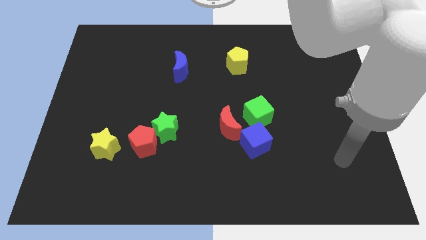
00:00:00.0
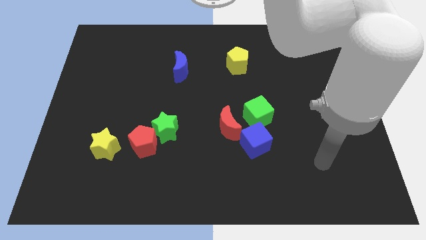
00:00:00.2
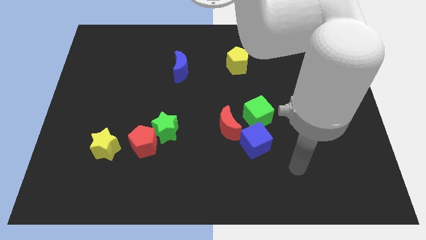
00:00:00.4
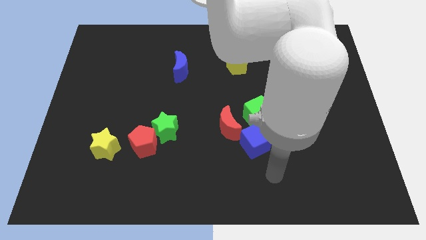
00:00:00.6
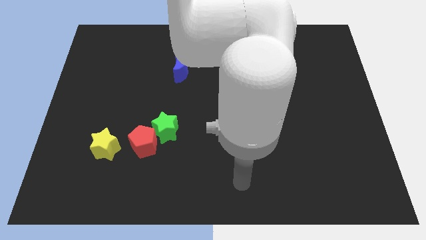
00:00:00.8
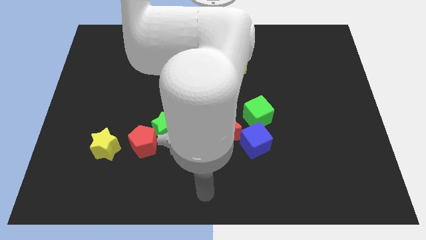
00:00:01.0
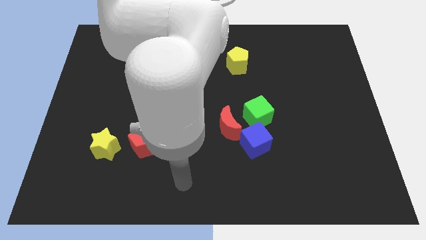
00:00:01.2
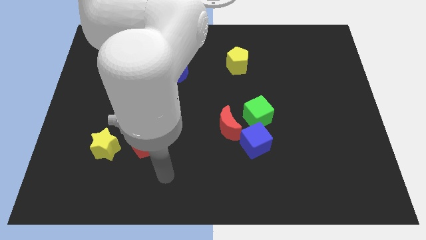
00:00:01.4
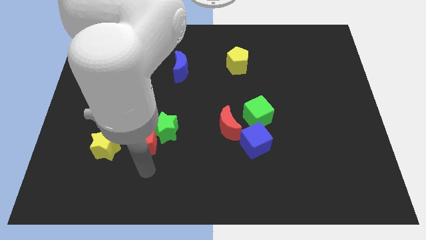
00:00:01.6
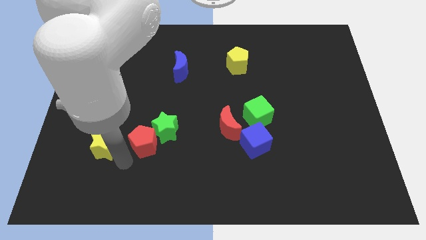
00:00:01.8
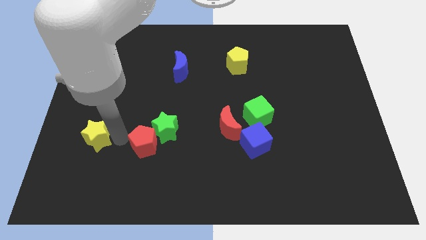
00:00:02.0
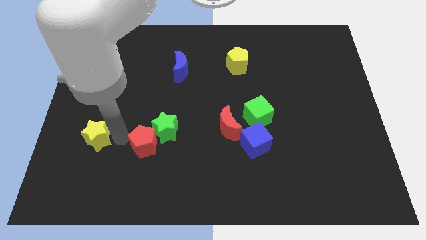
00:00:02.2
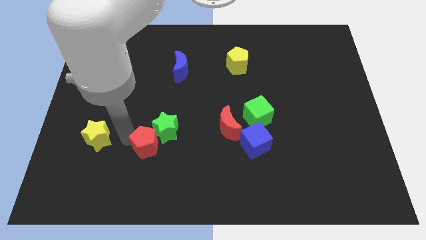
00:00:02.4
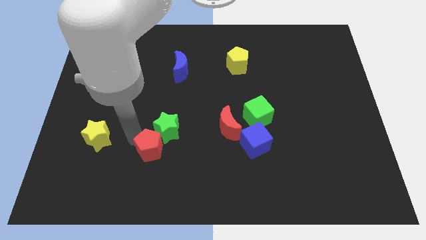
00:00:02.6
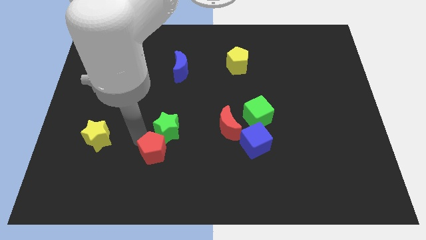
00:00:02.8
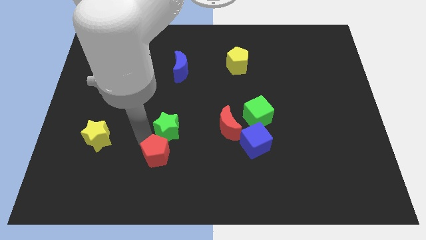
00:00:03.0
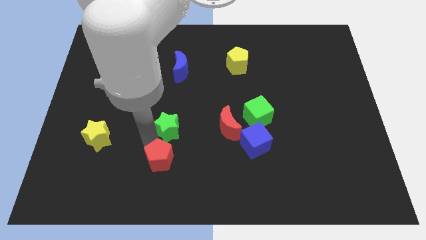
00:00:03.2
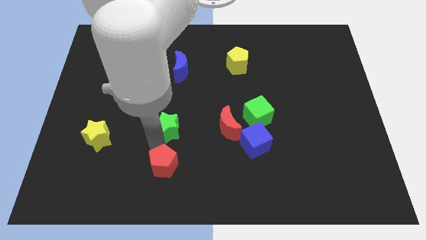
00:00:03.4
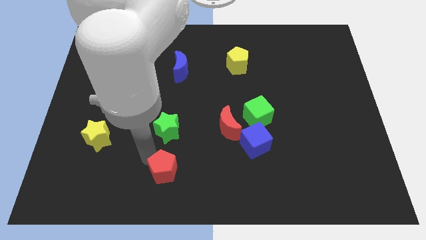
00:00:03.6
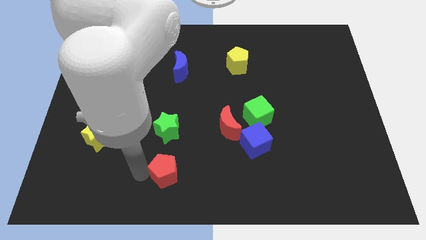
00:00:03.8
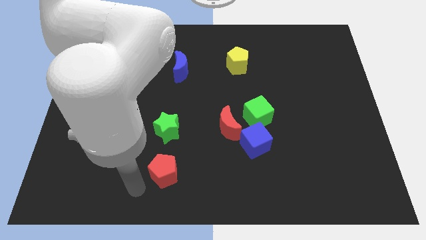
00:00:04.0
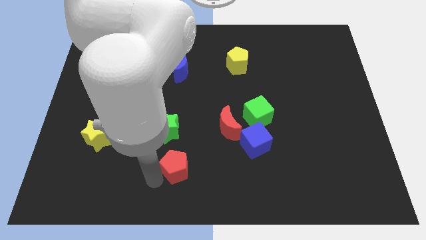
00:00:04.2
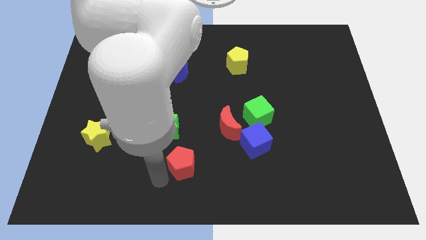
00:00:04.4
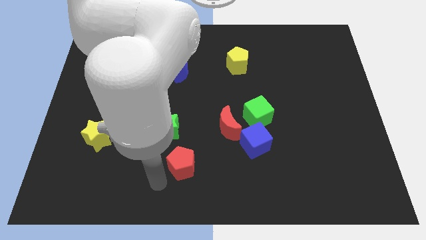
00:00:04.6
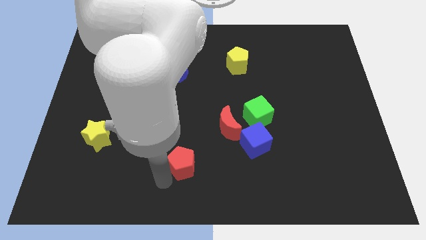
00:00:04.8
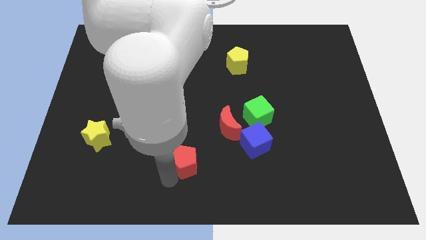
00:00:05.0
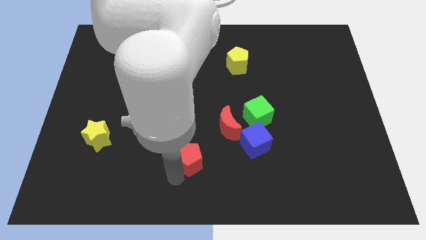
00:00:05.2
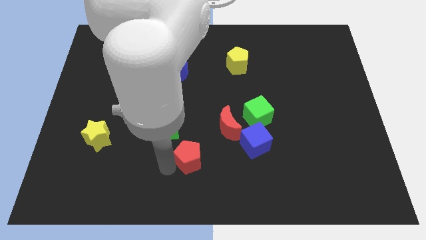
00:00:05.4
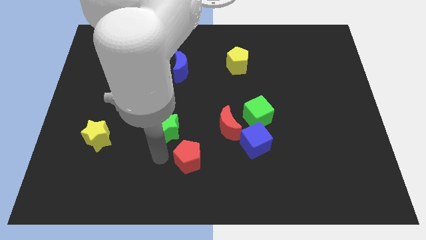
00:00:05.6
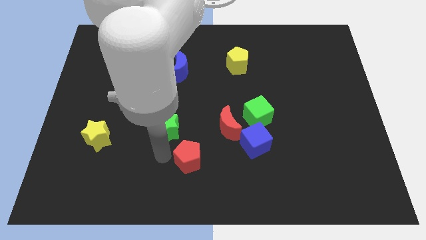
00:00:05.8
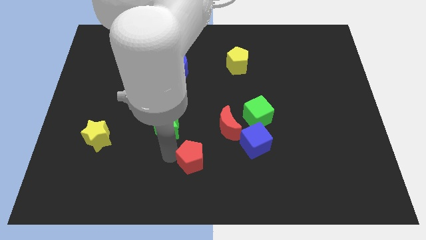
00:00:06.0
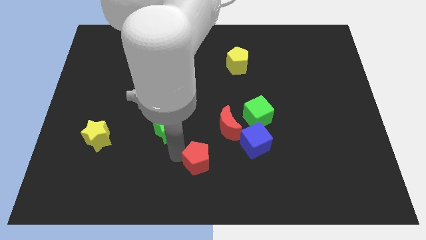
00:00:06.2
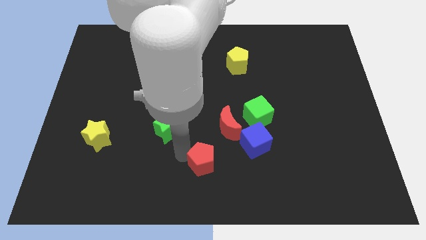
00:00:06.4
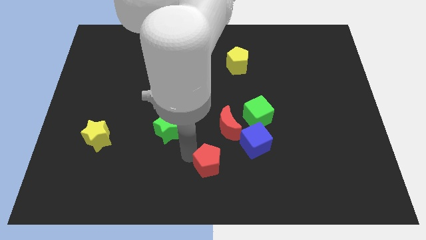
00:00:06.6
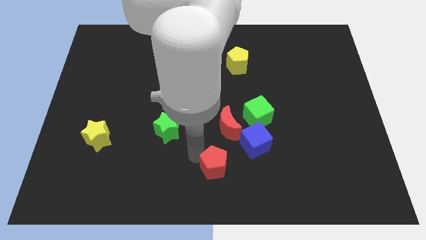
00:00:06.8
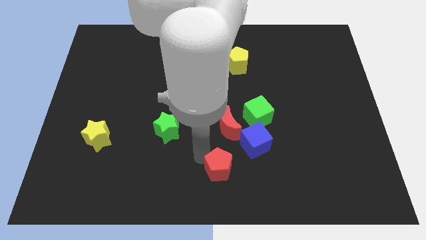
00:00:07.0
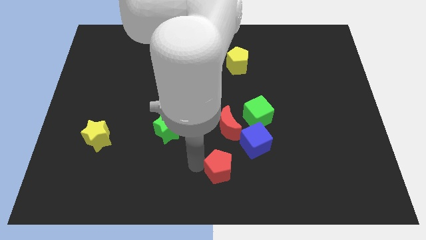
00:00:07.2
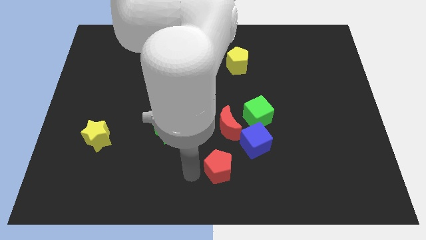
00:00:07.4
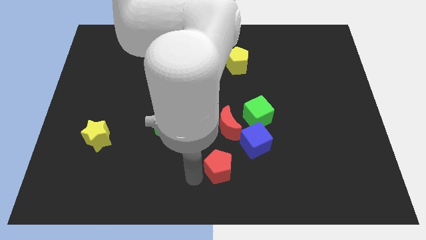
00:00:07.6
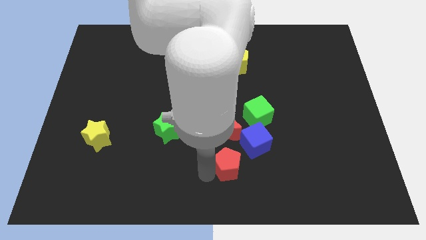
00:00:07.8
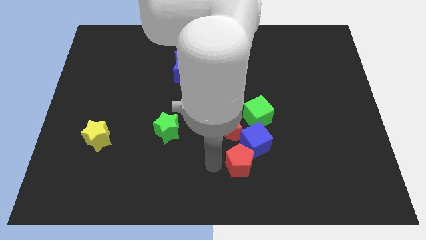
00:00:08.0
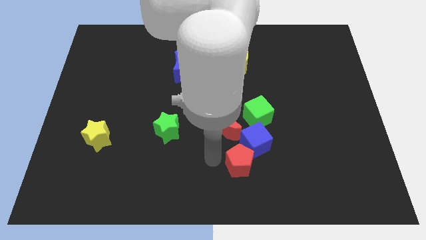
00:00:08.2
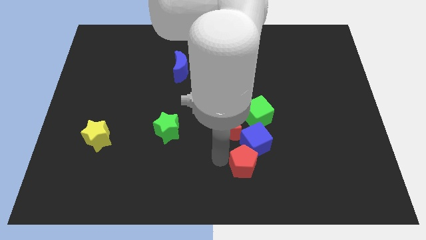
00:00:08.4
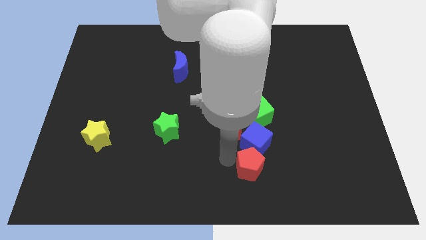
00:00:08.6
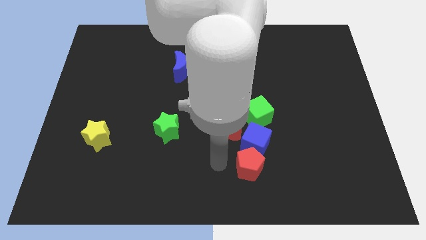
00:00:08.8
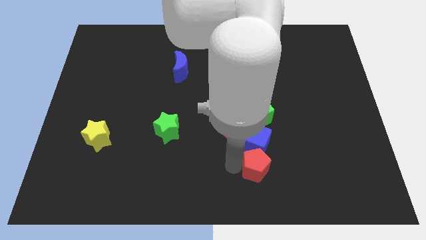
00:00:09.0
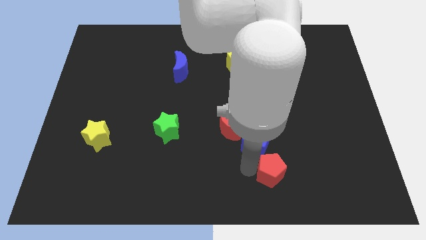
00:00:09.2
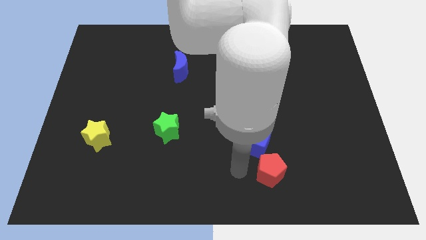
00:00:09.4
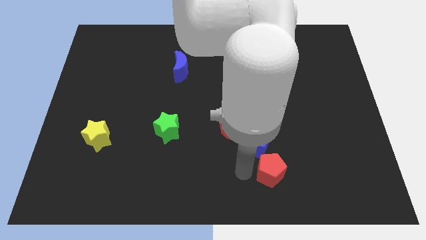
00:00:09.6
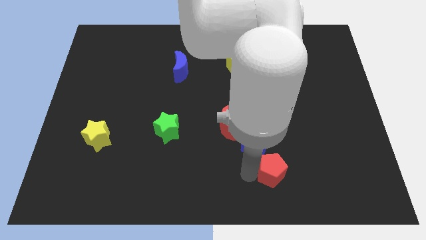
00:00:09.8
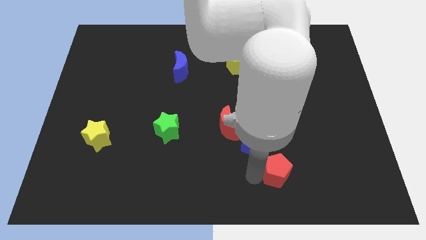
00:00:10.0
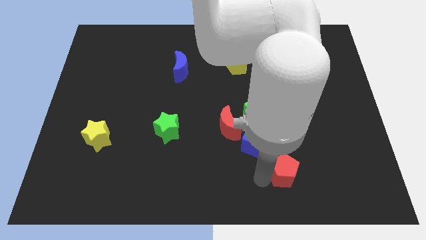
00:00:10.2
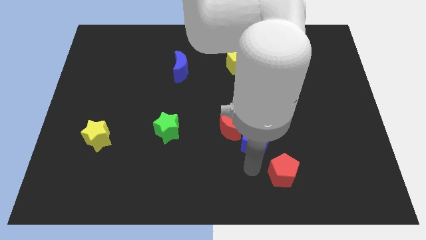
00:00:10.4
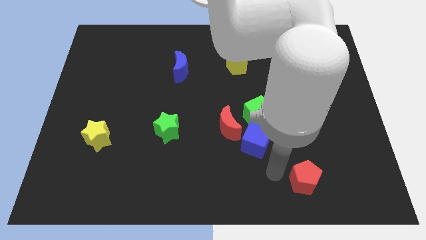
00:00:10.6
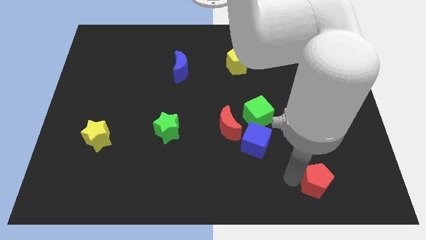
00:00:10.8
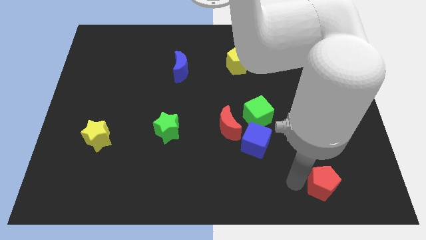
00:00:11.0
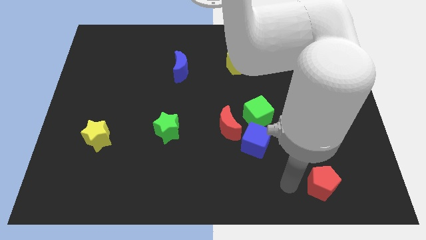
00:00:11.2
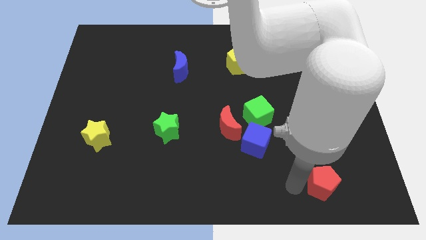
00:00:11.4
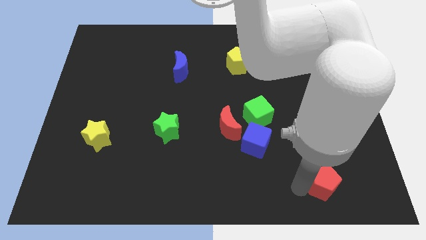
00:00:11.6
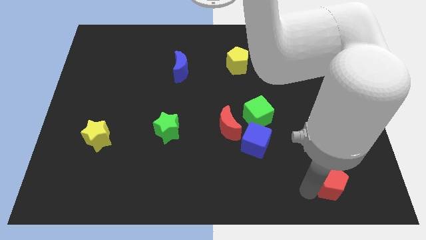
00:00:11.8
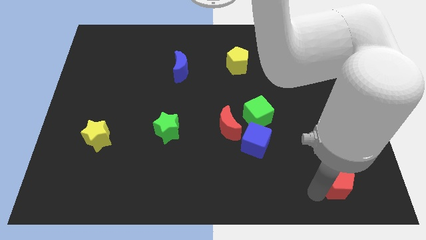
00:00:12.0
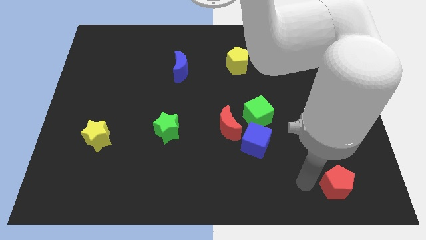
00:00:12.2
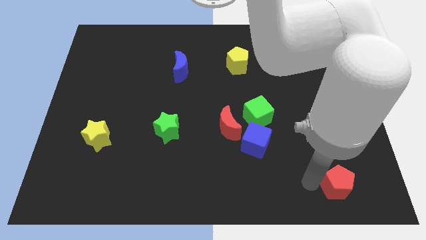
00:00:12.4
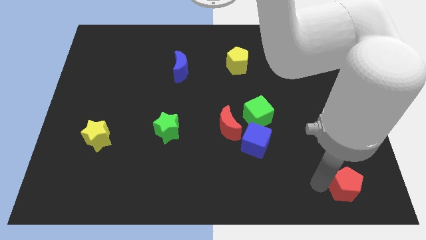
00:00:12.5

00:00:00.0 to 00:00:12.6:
push the red pentagon to the lower right corner

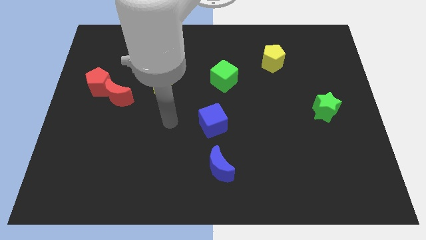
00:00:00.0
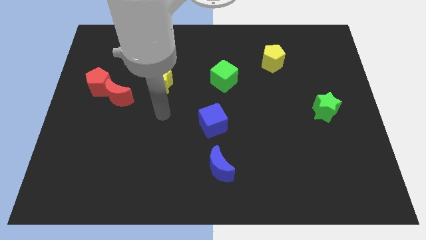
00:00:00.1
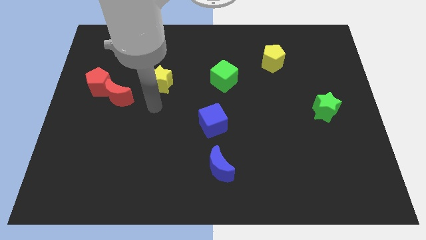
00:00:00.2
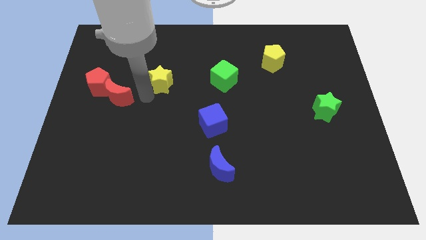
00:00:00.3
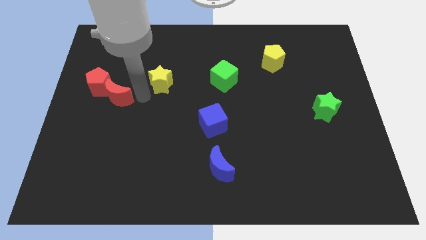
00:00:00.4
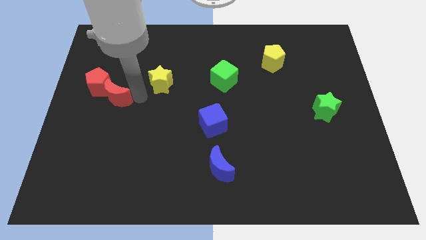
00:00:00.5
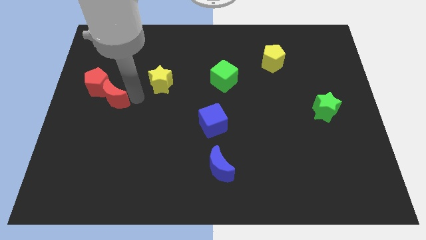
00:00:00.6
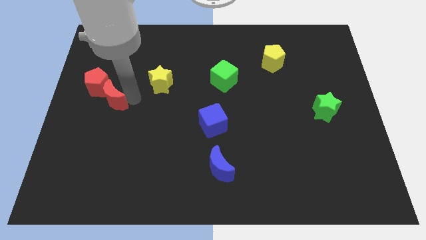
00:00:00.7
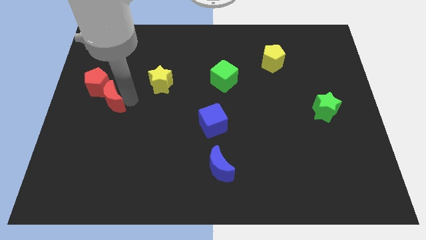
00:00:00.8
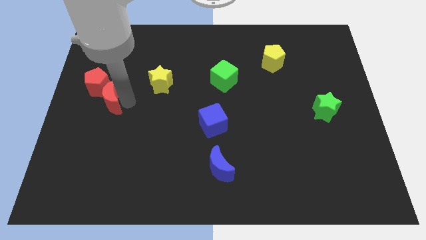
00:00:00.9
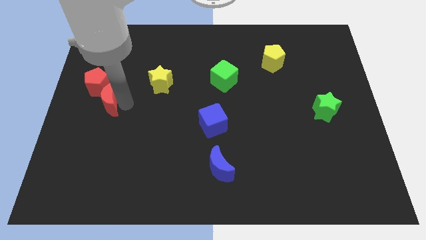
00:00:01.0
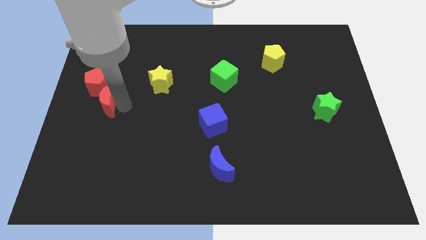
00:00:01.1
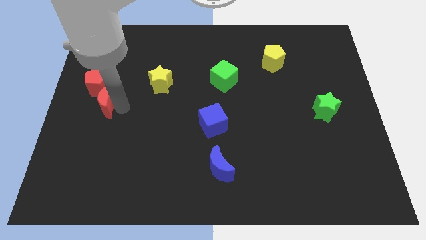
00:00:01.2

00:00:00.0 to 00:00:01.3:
push the red moon to the center left
